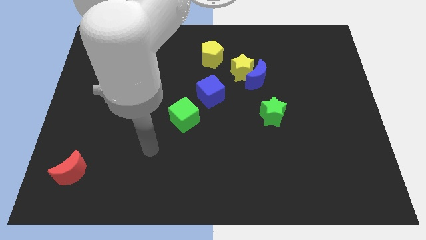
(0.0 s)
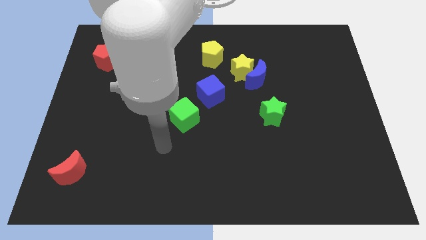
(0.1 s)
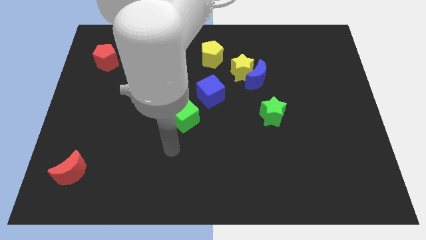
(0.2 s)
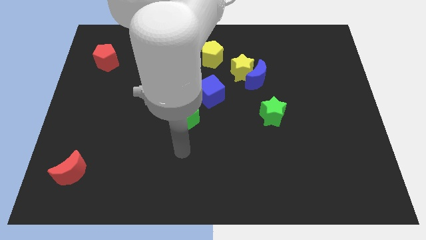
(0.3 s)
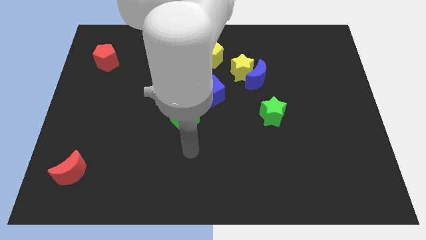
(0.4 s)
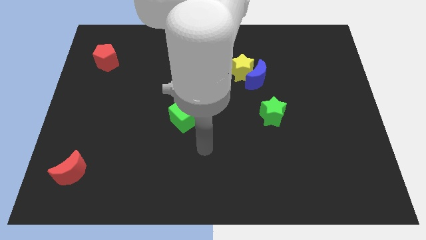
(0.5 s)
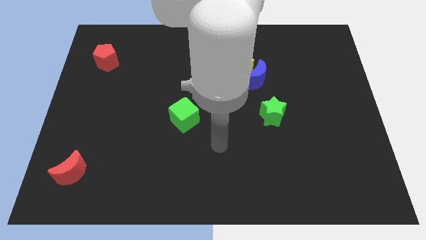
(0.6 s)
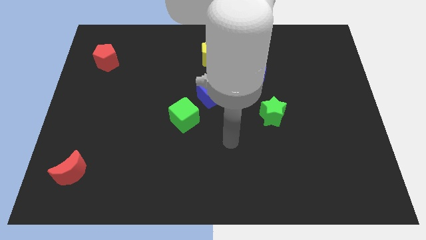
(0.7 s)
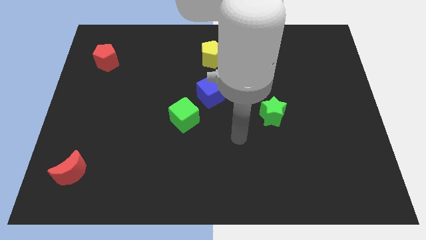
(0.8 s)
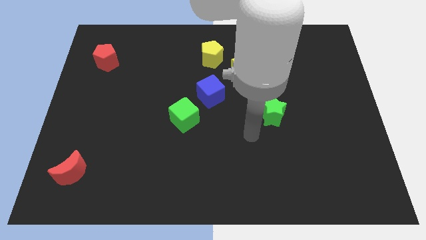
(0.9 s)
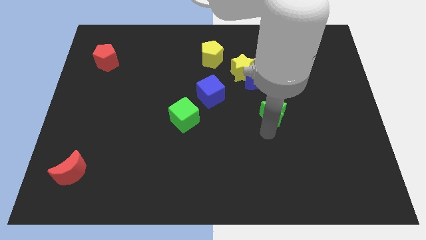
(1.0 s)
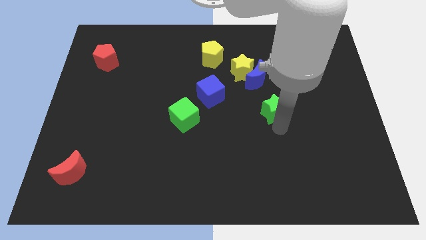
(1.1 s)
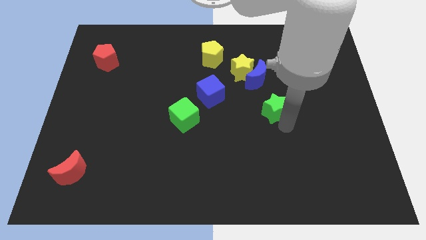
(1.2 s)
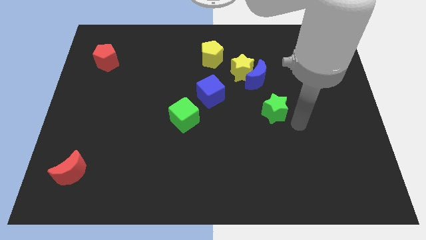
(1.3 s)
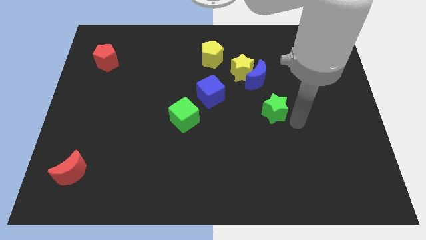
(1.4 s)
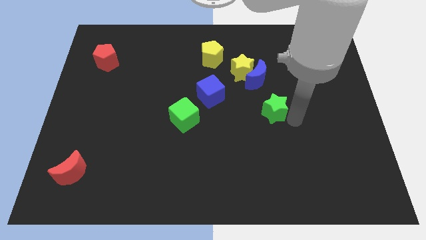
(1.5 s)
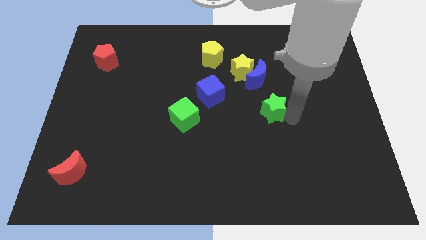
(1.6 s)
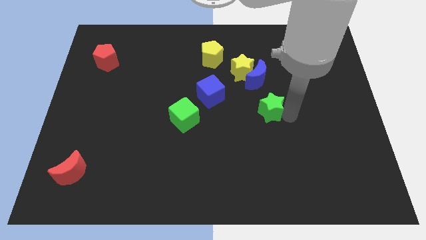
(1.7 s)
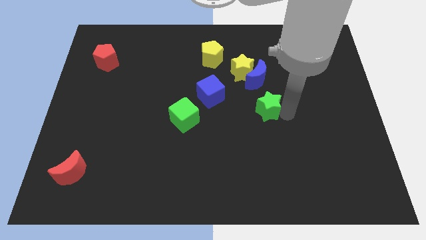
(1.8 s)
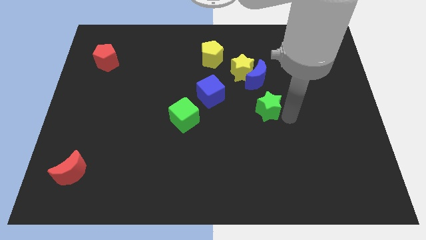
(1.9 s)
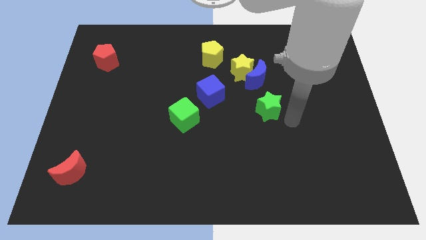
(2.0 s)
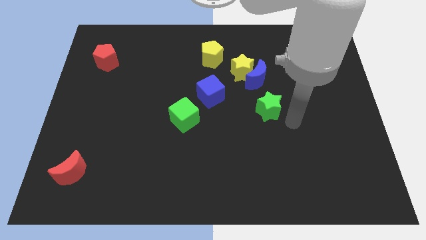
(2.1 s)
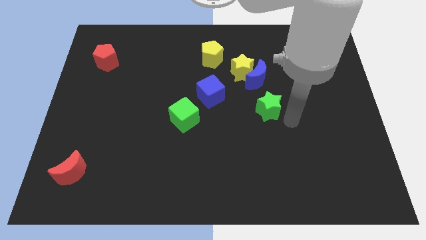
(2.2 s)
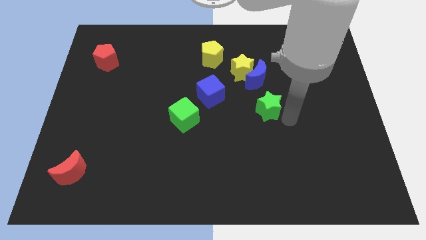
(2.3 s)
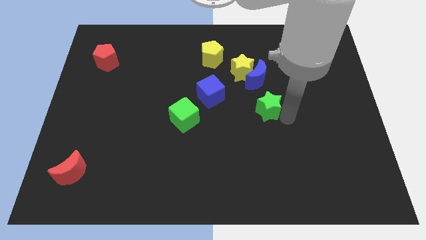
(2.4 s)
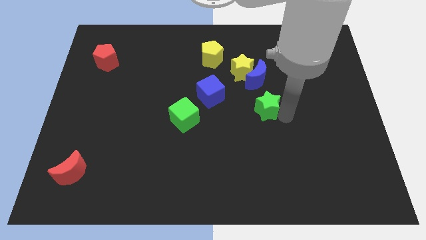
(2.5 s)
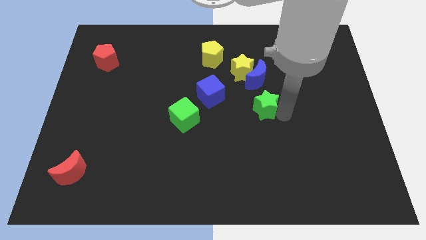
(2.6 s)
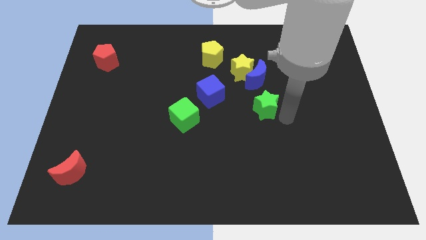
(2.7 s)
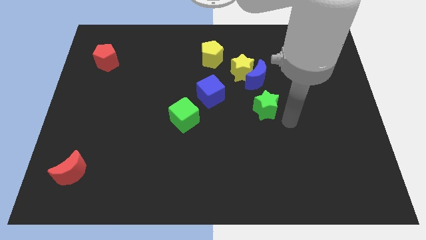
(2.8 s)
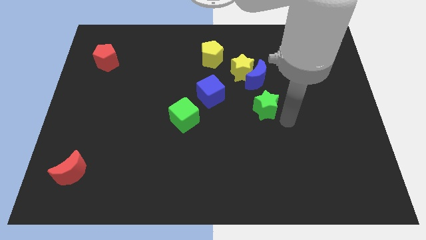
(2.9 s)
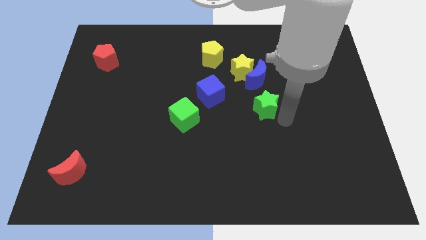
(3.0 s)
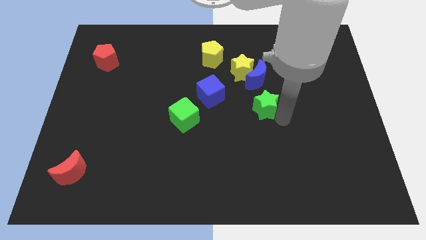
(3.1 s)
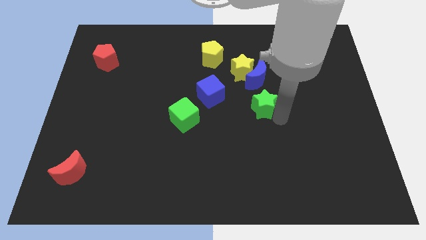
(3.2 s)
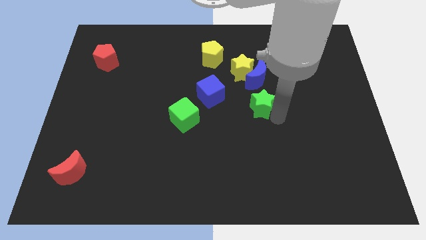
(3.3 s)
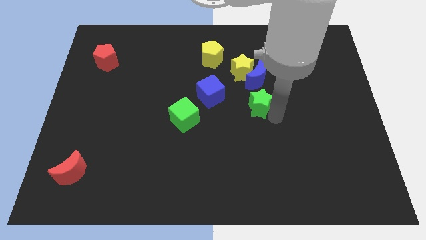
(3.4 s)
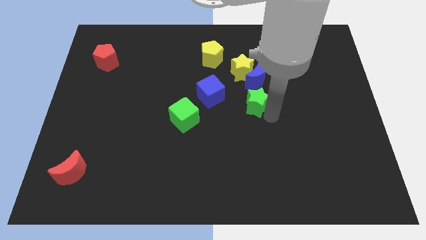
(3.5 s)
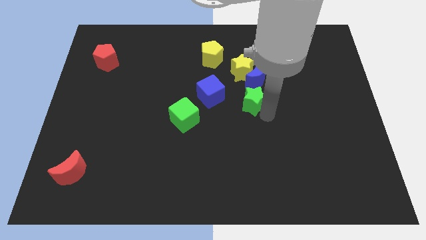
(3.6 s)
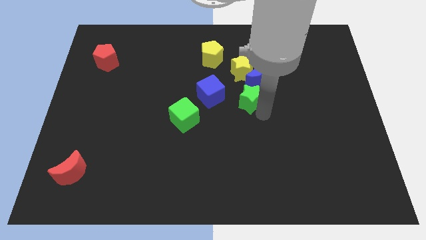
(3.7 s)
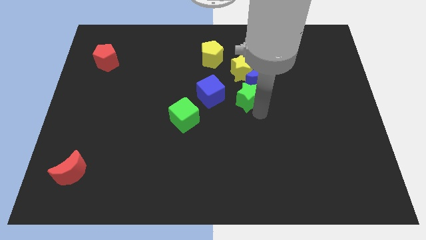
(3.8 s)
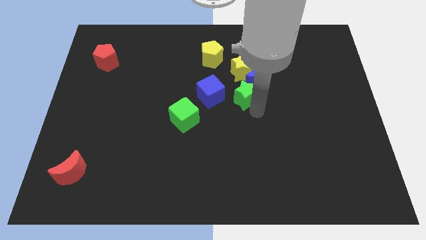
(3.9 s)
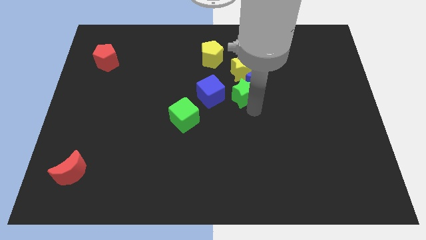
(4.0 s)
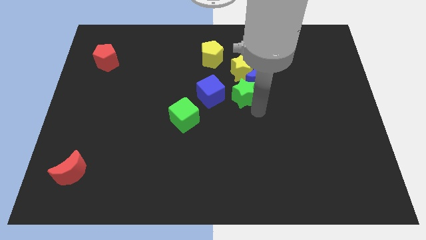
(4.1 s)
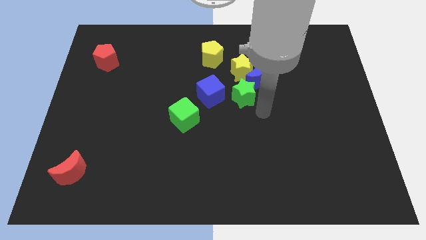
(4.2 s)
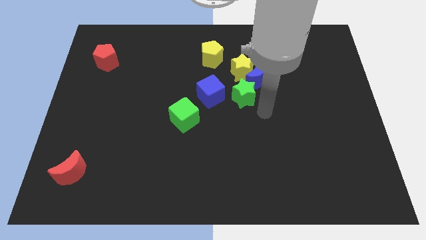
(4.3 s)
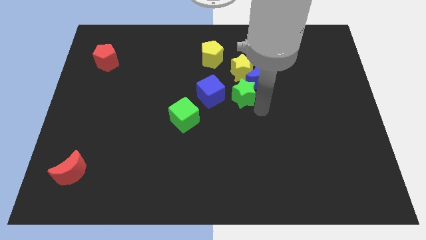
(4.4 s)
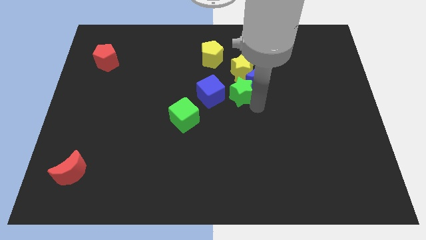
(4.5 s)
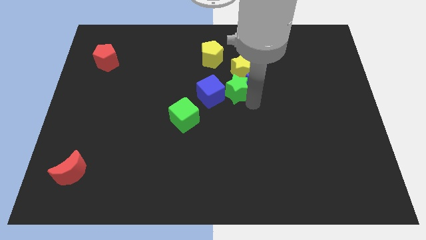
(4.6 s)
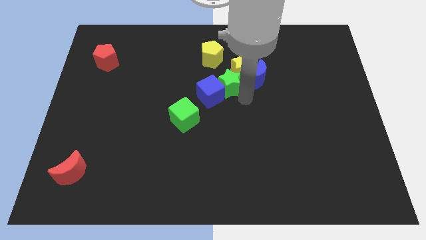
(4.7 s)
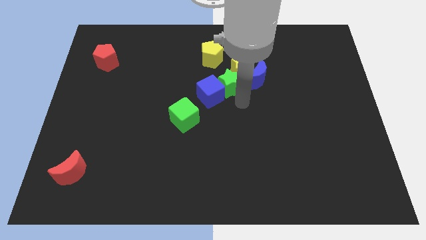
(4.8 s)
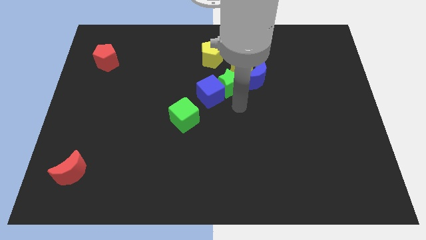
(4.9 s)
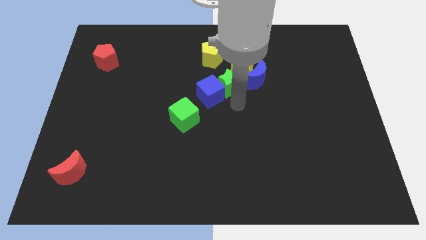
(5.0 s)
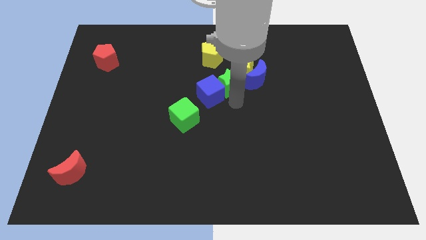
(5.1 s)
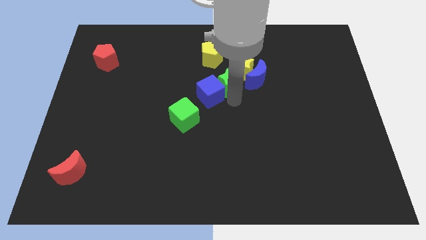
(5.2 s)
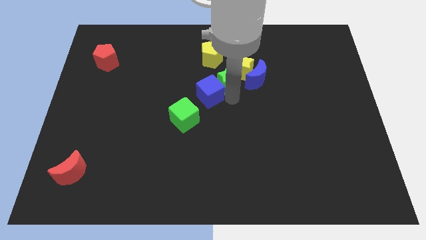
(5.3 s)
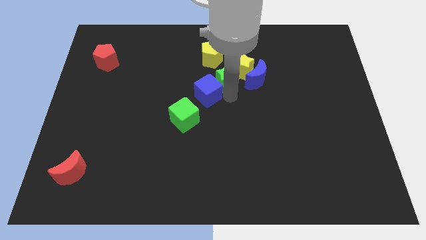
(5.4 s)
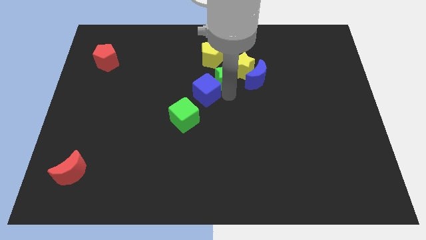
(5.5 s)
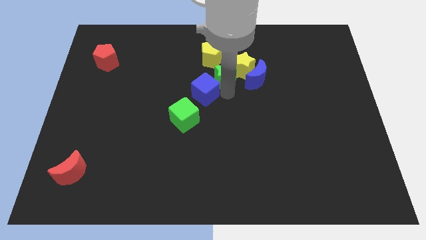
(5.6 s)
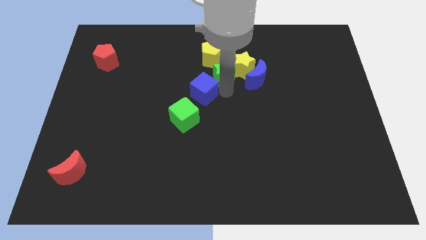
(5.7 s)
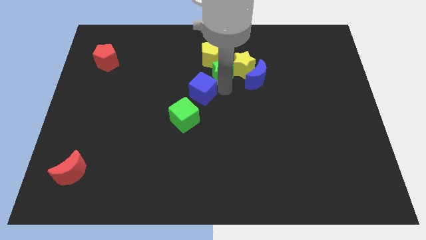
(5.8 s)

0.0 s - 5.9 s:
slide the green star to the top left side of the blue moon
